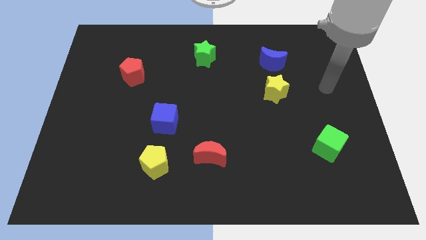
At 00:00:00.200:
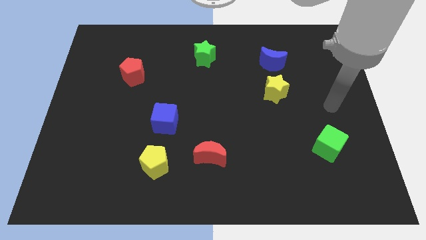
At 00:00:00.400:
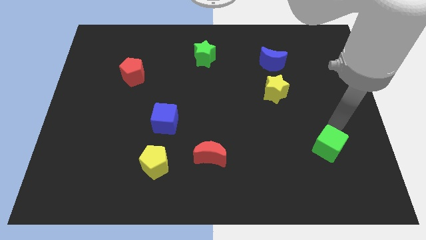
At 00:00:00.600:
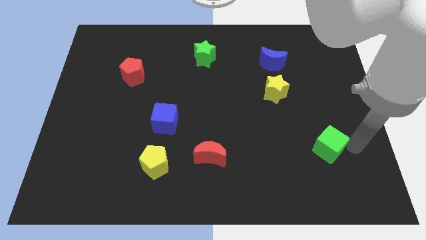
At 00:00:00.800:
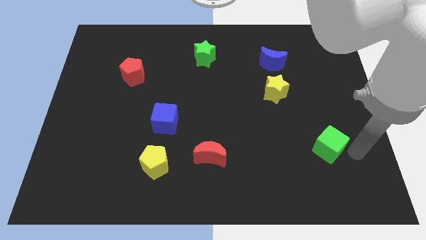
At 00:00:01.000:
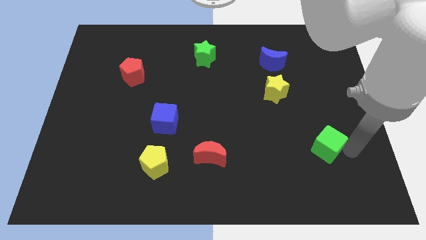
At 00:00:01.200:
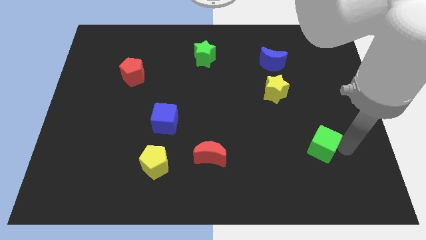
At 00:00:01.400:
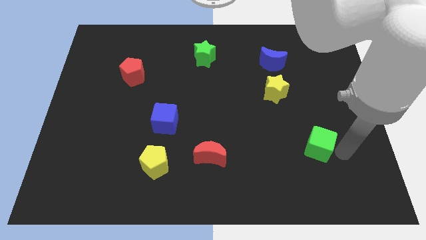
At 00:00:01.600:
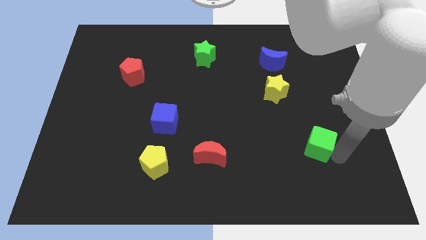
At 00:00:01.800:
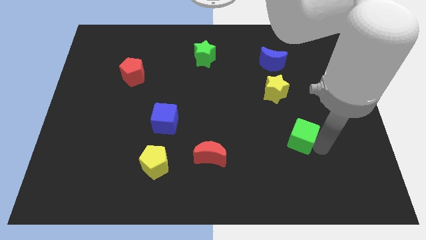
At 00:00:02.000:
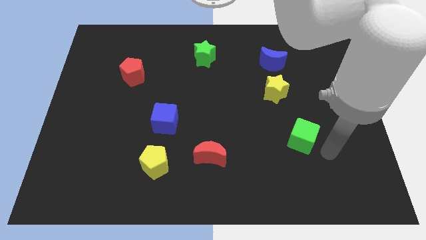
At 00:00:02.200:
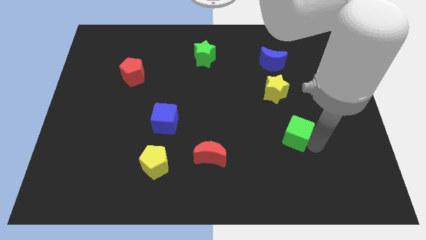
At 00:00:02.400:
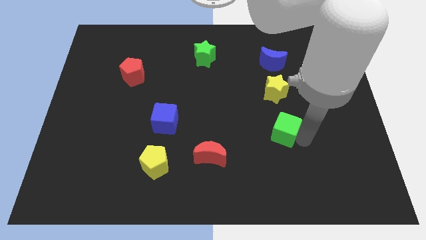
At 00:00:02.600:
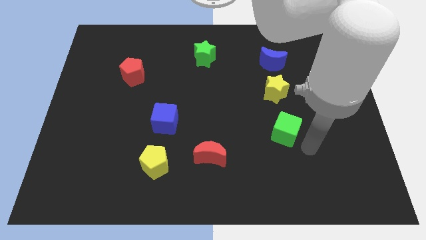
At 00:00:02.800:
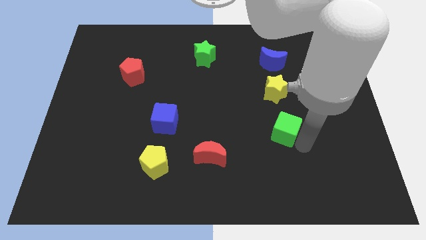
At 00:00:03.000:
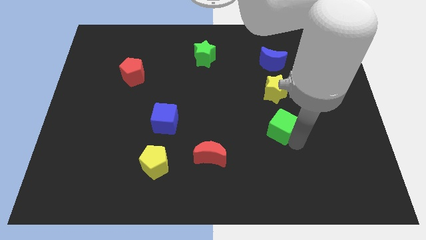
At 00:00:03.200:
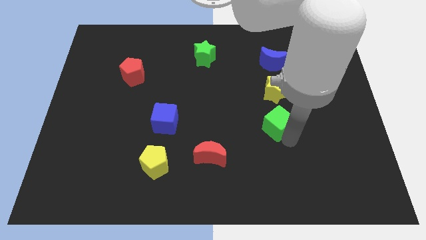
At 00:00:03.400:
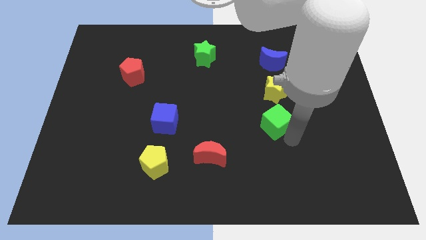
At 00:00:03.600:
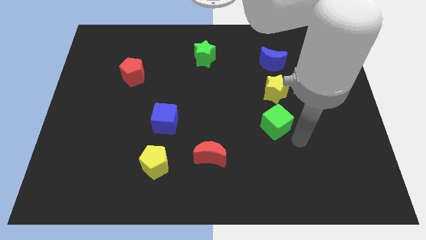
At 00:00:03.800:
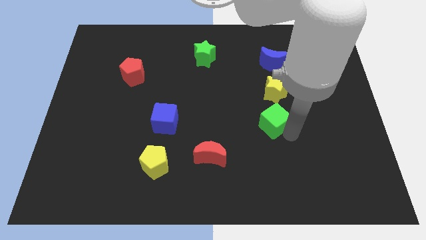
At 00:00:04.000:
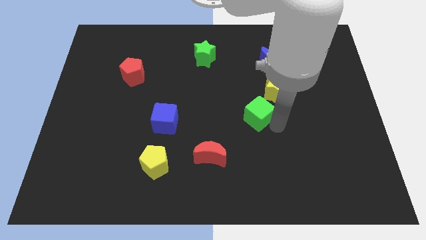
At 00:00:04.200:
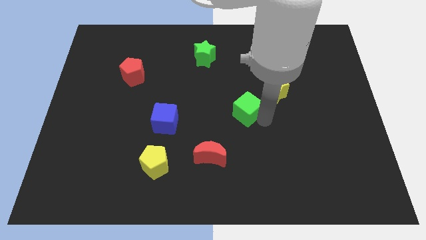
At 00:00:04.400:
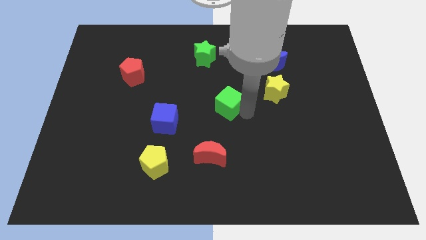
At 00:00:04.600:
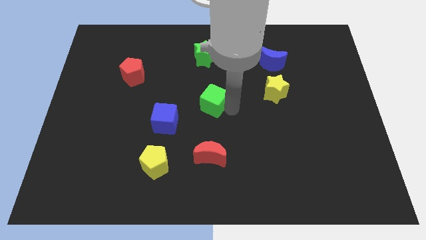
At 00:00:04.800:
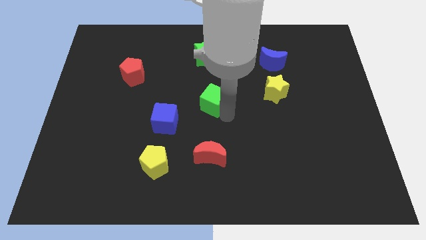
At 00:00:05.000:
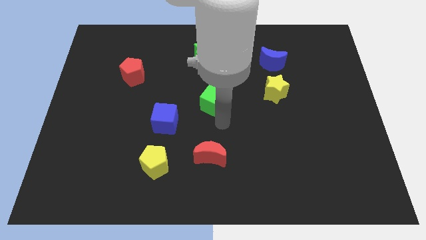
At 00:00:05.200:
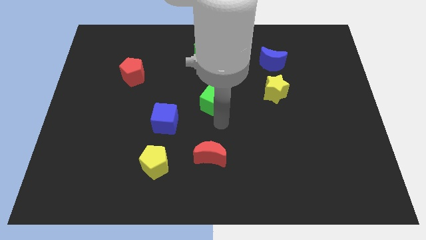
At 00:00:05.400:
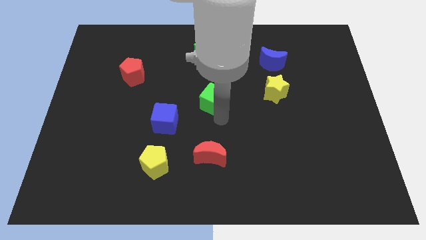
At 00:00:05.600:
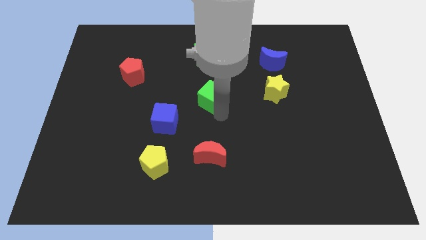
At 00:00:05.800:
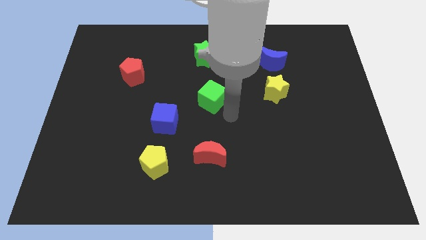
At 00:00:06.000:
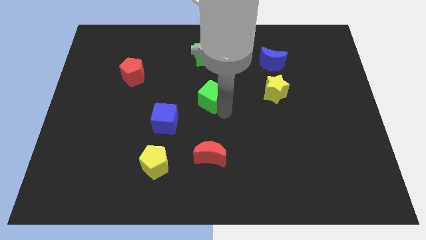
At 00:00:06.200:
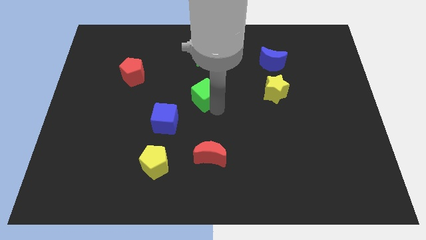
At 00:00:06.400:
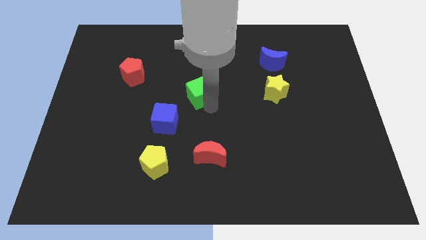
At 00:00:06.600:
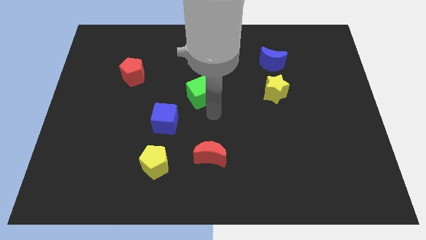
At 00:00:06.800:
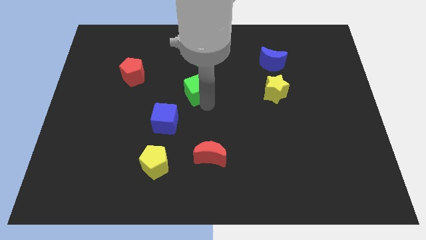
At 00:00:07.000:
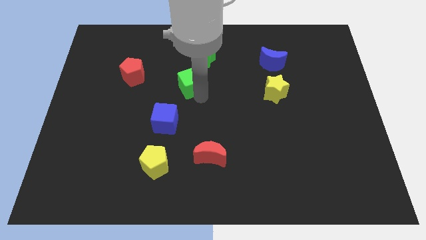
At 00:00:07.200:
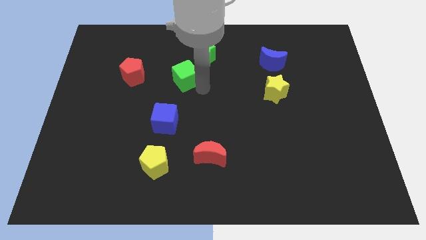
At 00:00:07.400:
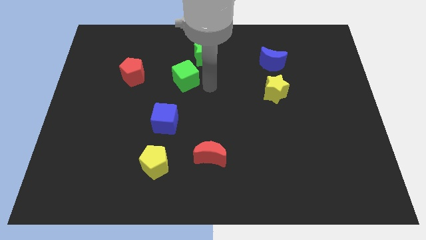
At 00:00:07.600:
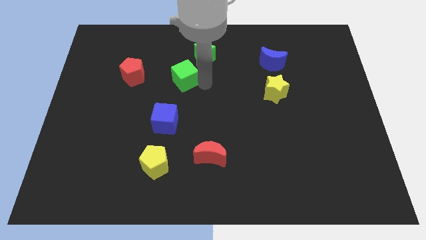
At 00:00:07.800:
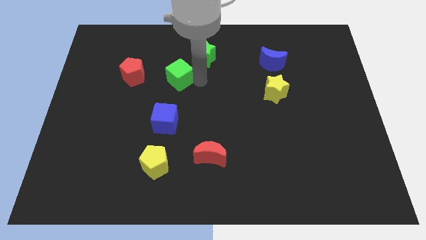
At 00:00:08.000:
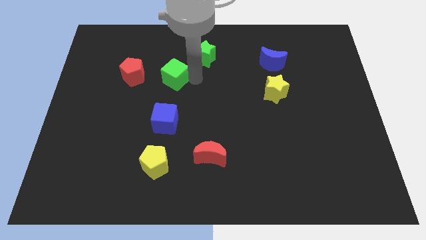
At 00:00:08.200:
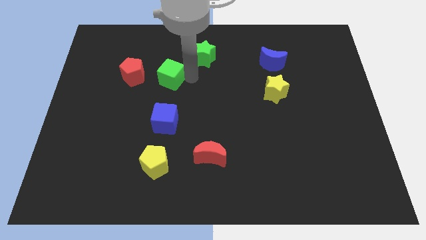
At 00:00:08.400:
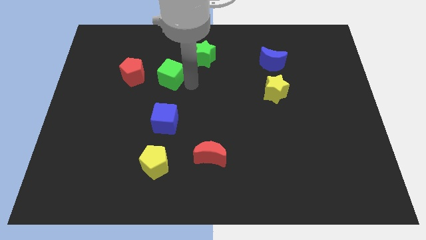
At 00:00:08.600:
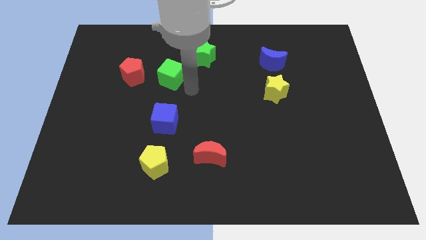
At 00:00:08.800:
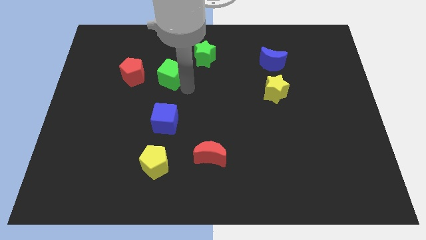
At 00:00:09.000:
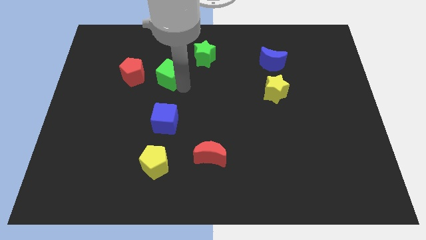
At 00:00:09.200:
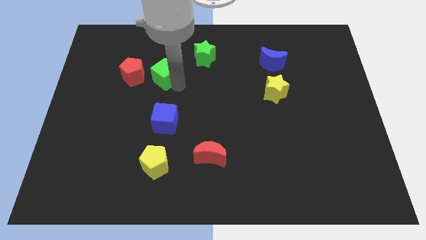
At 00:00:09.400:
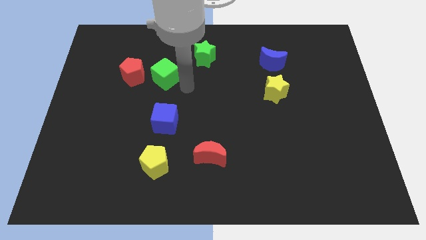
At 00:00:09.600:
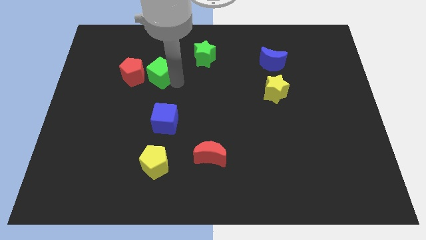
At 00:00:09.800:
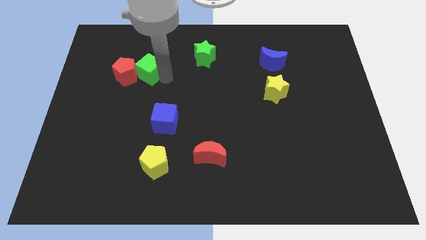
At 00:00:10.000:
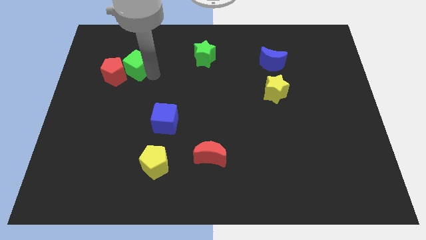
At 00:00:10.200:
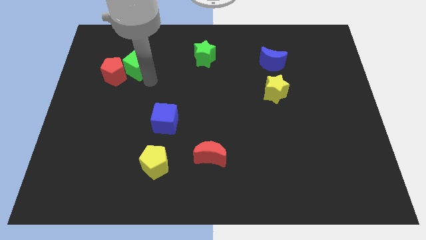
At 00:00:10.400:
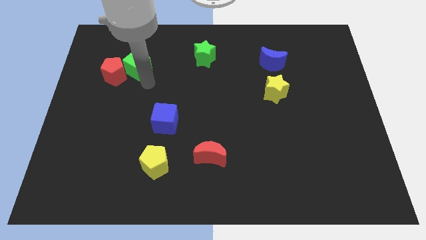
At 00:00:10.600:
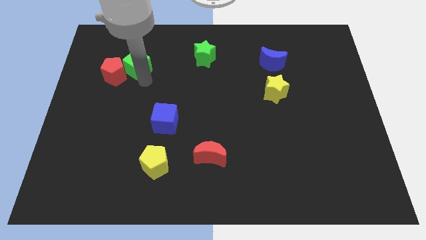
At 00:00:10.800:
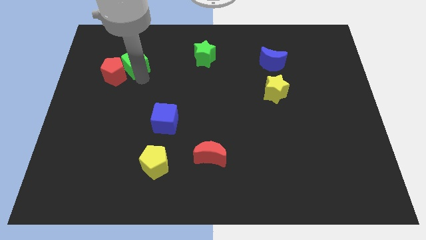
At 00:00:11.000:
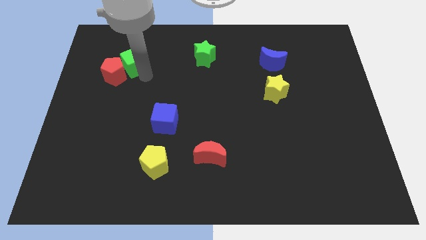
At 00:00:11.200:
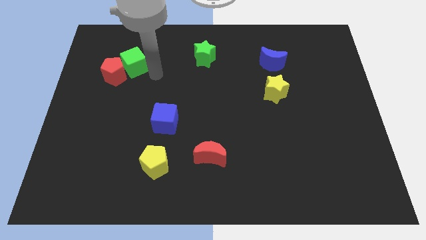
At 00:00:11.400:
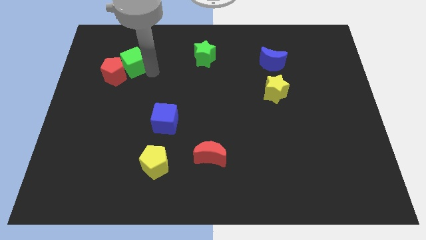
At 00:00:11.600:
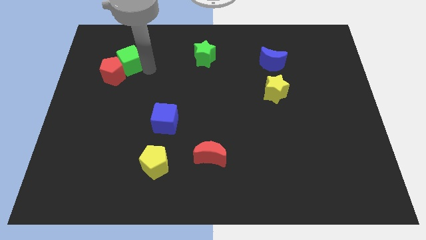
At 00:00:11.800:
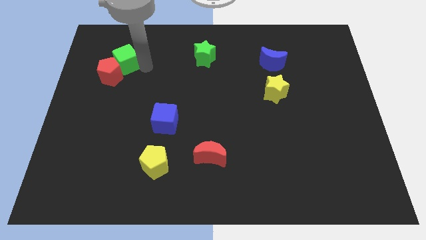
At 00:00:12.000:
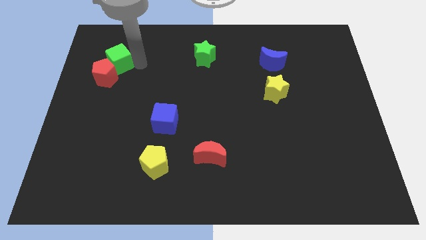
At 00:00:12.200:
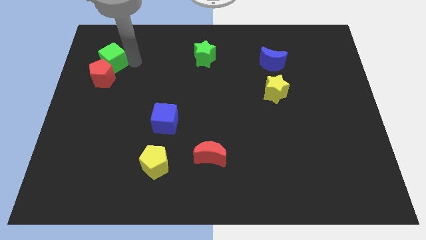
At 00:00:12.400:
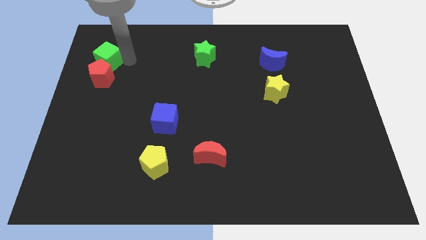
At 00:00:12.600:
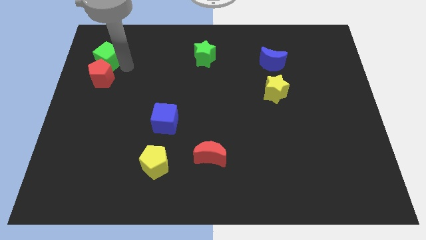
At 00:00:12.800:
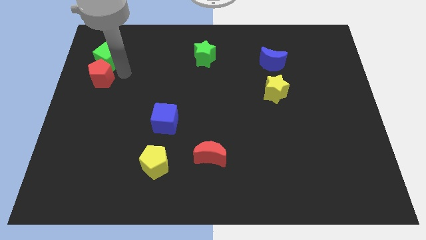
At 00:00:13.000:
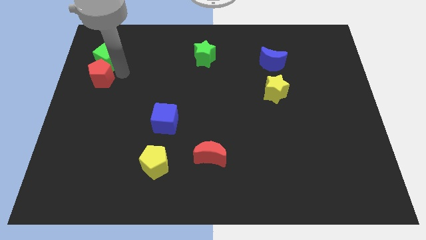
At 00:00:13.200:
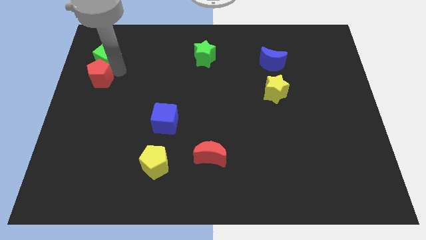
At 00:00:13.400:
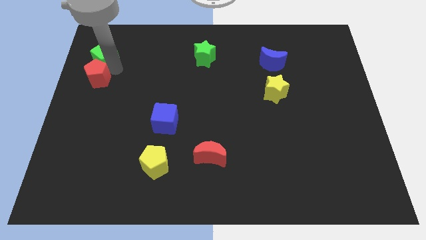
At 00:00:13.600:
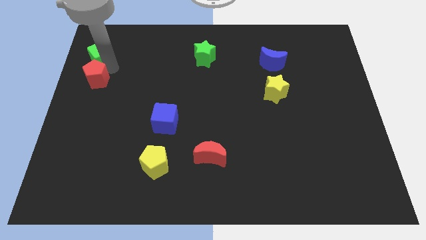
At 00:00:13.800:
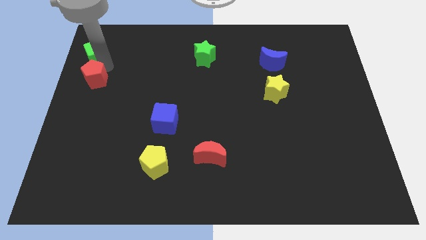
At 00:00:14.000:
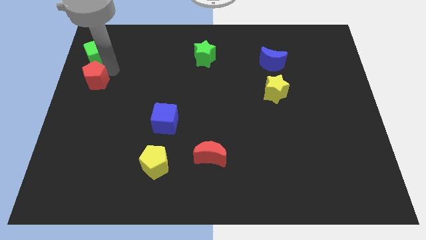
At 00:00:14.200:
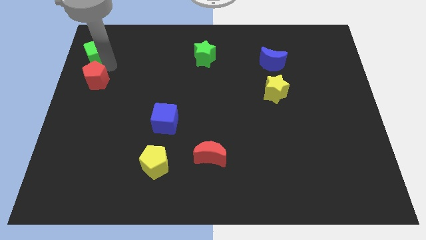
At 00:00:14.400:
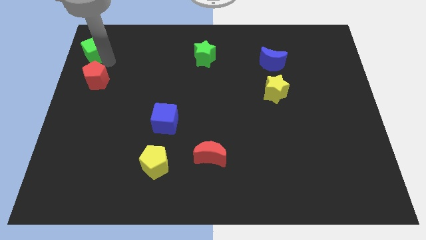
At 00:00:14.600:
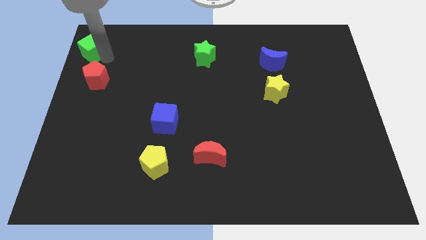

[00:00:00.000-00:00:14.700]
move the green cube to the top left corner
